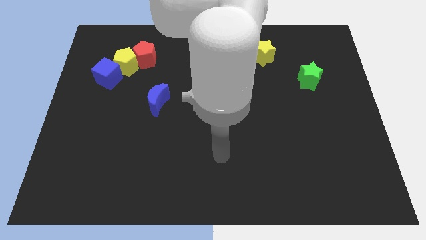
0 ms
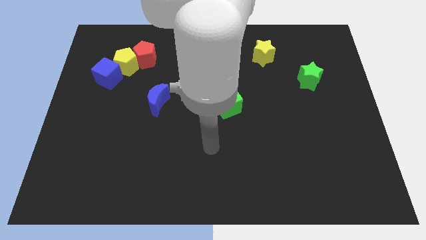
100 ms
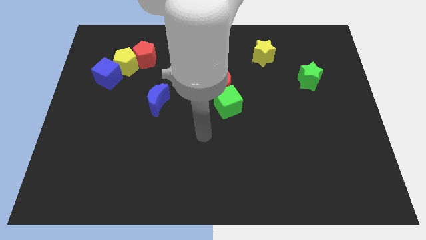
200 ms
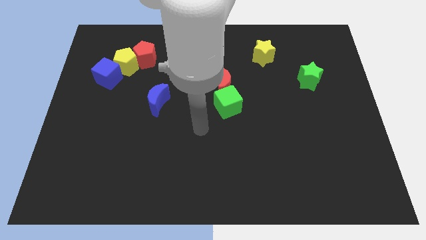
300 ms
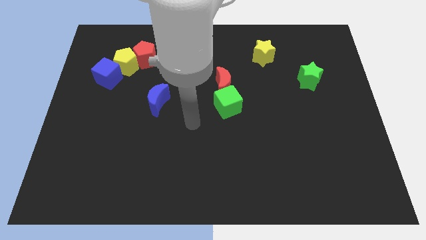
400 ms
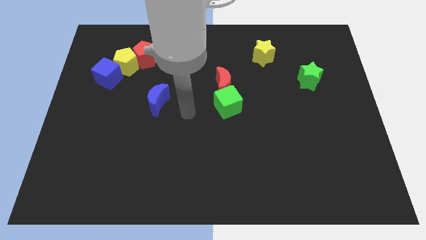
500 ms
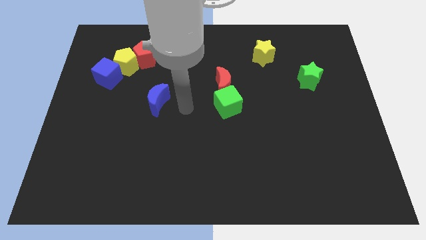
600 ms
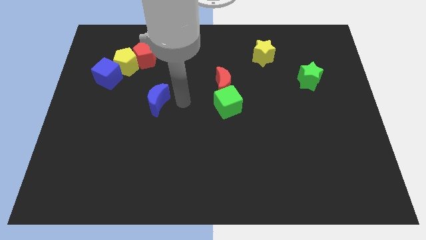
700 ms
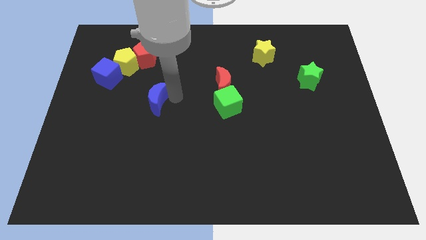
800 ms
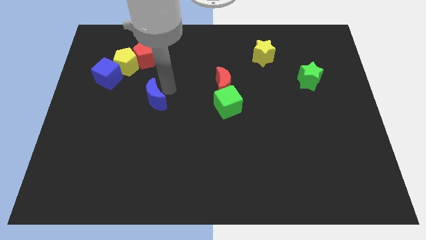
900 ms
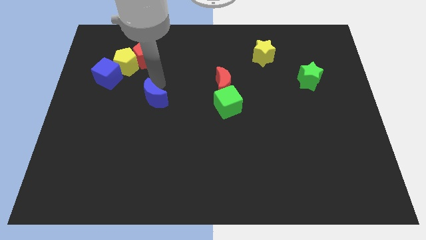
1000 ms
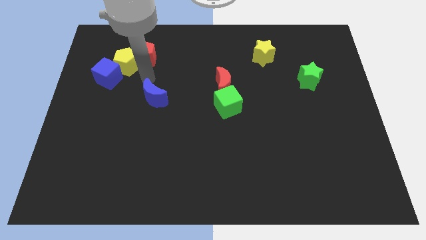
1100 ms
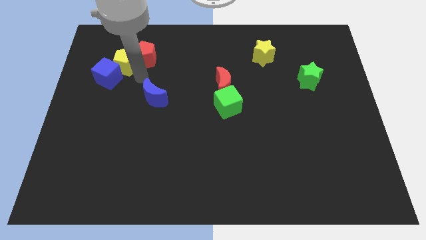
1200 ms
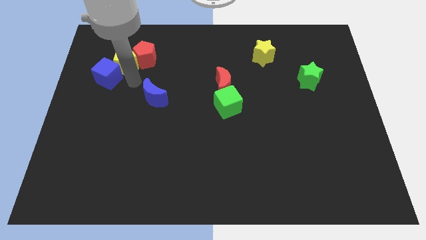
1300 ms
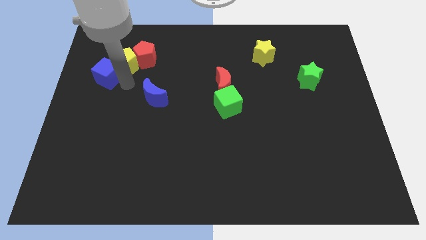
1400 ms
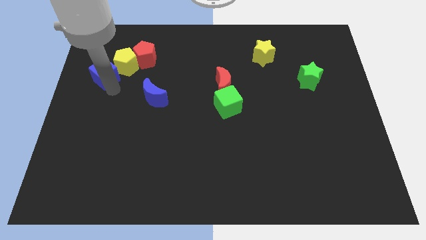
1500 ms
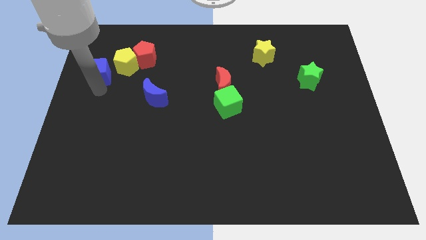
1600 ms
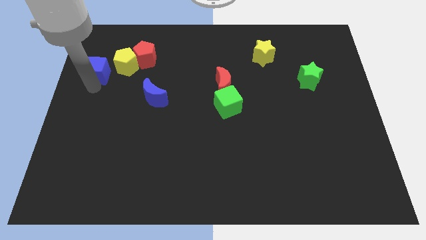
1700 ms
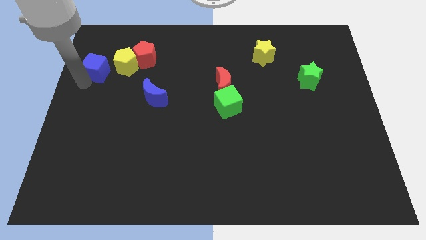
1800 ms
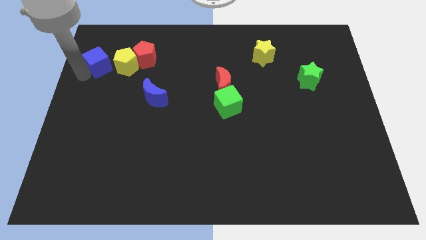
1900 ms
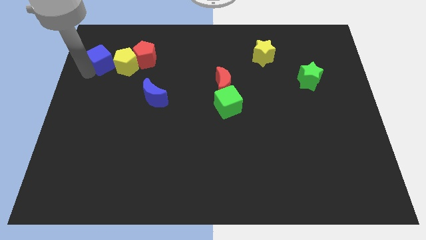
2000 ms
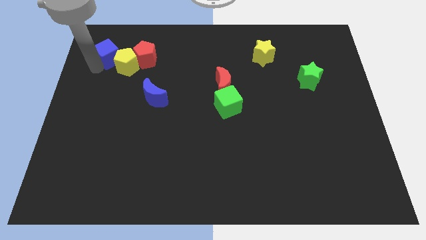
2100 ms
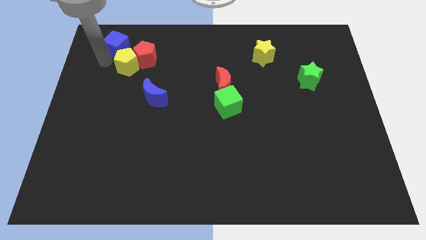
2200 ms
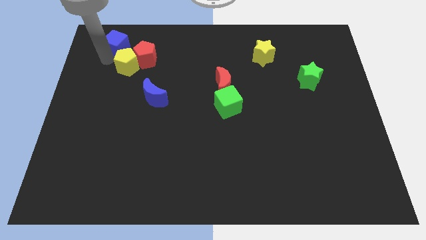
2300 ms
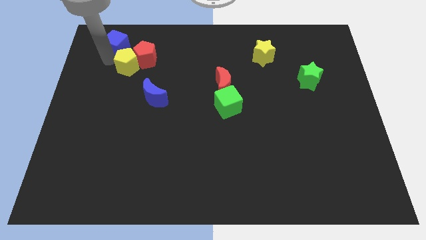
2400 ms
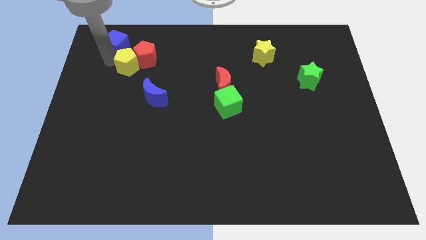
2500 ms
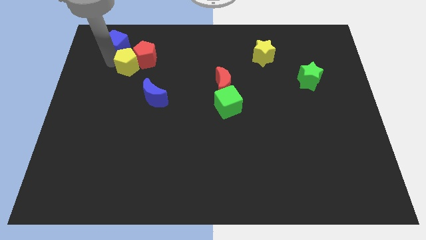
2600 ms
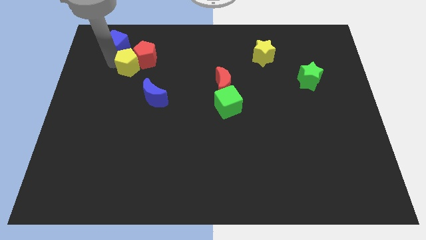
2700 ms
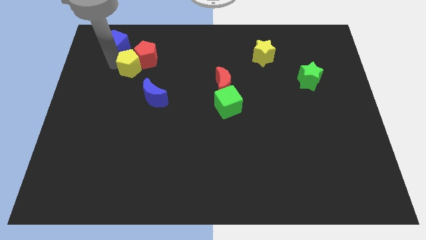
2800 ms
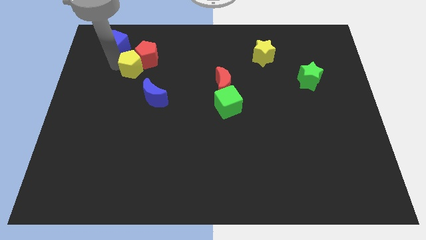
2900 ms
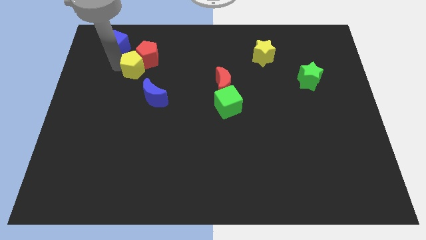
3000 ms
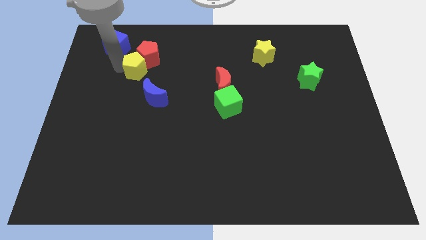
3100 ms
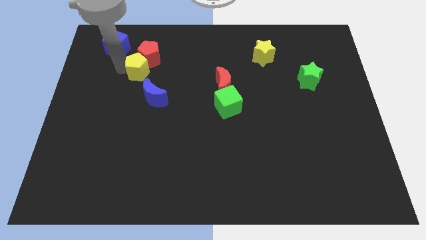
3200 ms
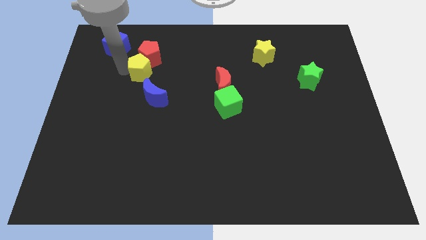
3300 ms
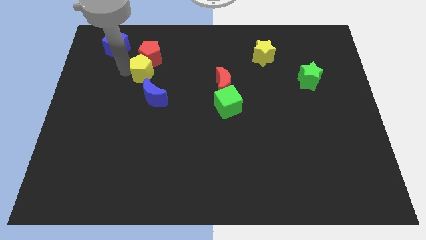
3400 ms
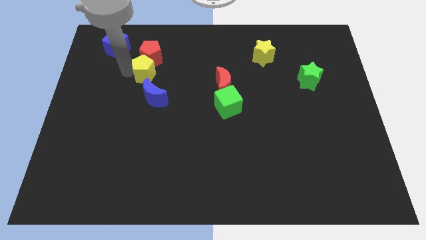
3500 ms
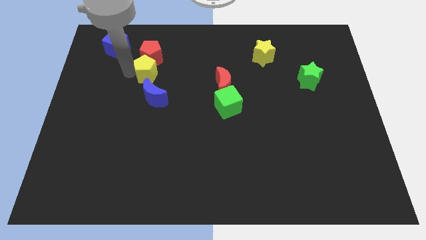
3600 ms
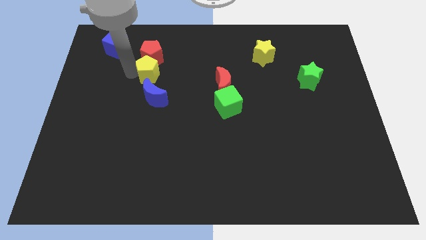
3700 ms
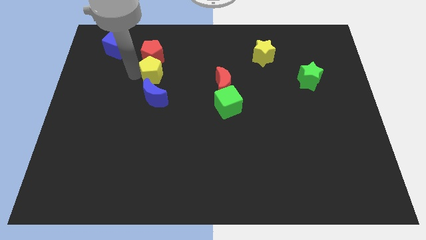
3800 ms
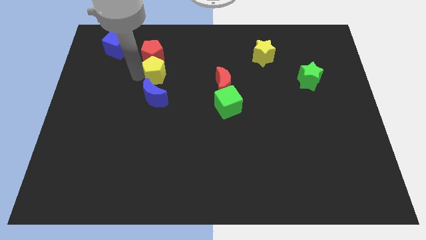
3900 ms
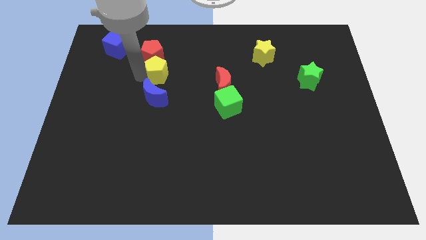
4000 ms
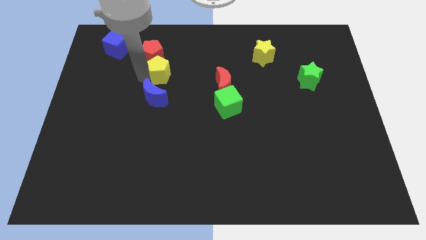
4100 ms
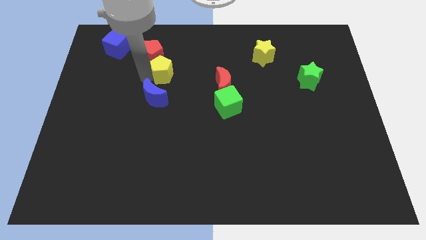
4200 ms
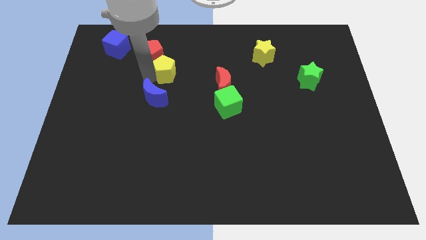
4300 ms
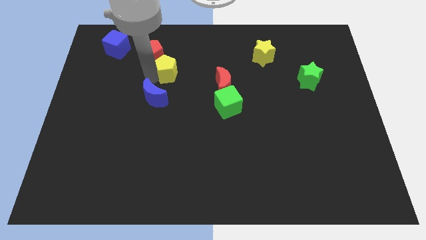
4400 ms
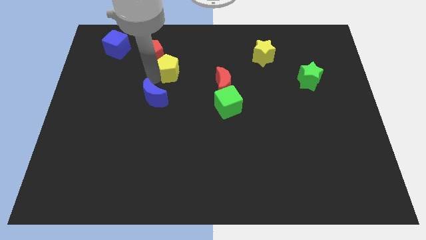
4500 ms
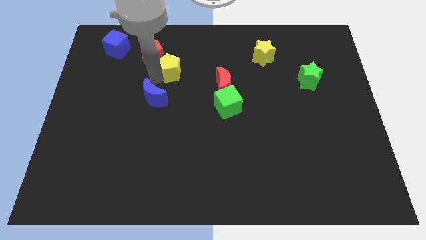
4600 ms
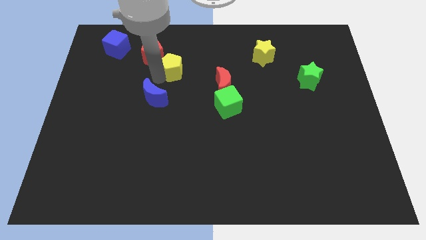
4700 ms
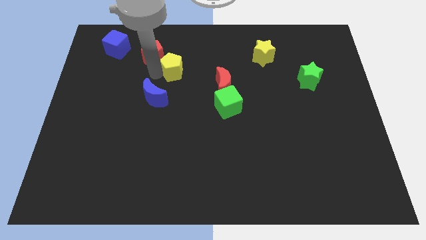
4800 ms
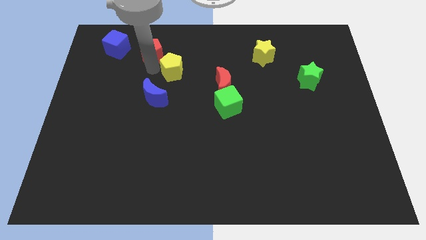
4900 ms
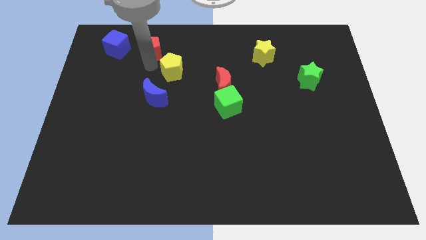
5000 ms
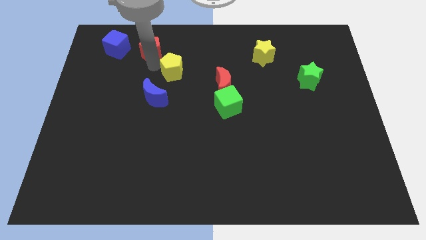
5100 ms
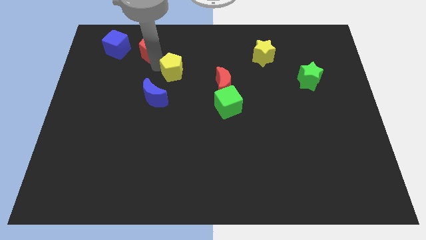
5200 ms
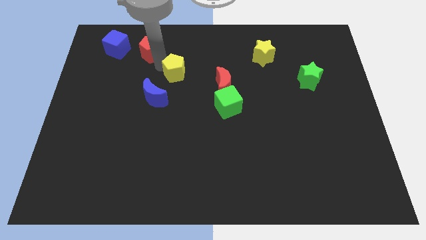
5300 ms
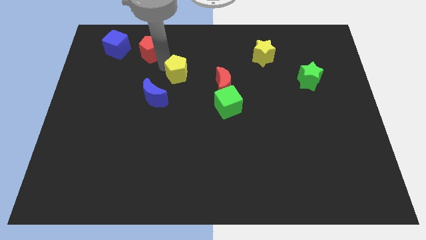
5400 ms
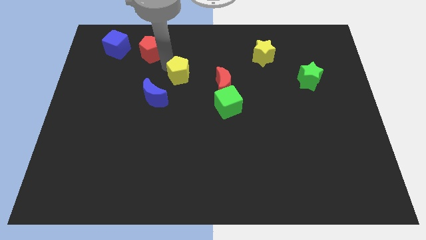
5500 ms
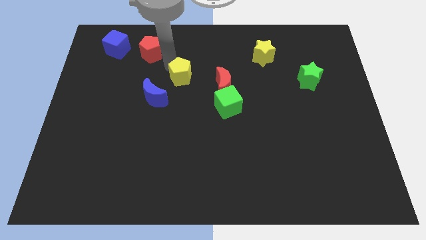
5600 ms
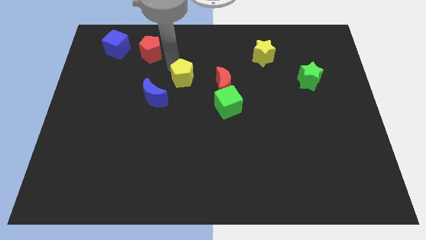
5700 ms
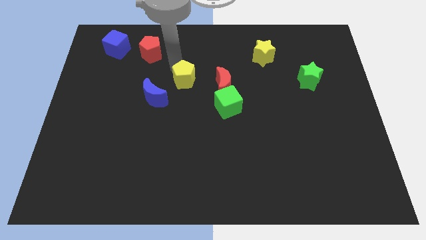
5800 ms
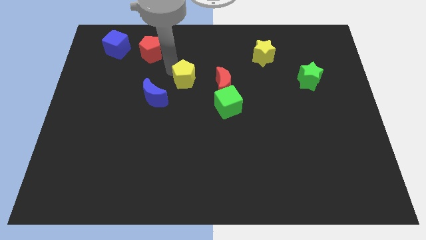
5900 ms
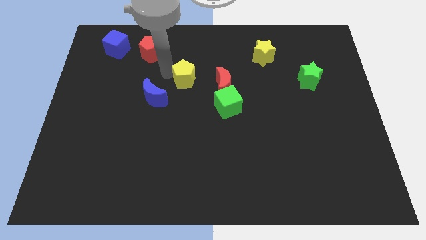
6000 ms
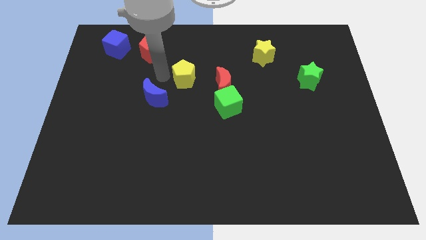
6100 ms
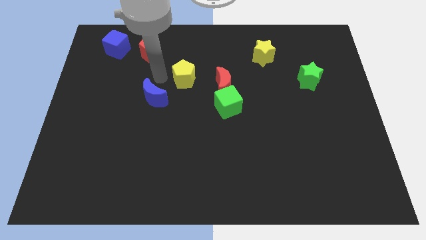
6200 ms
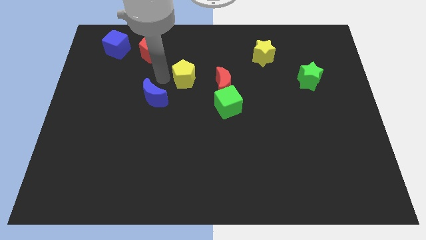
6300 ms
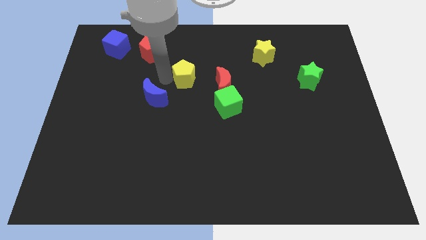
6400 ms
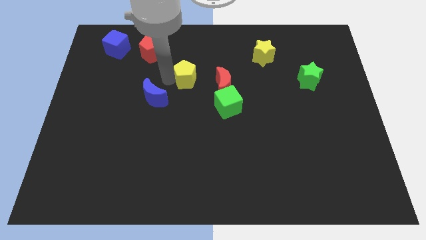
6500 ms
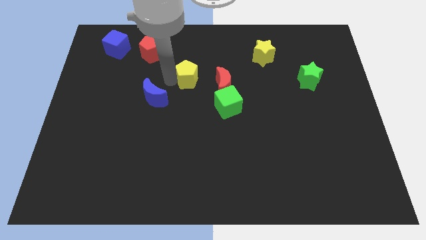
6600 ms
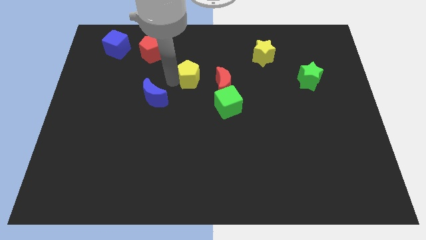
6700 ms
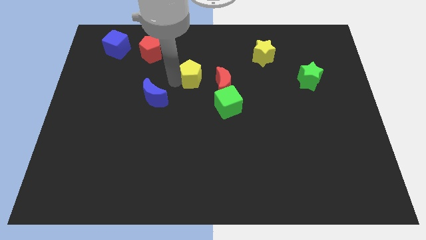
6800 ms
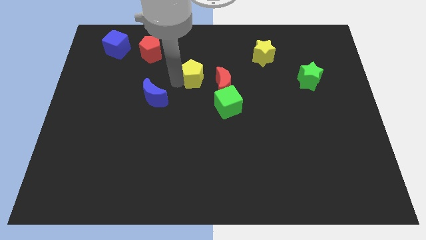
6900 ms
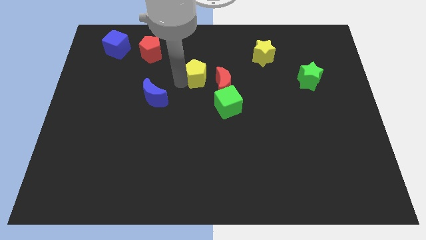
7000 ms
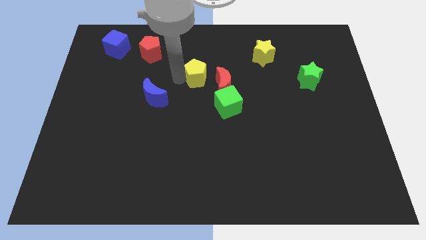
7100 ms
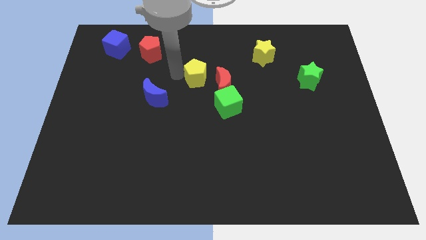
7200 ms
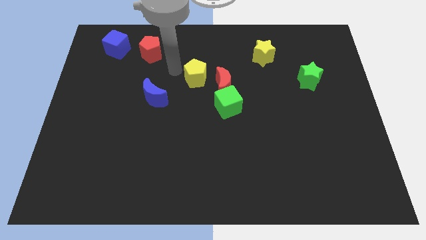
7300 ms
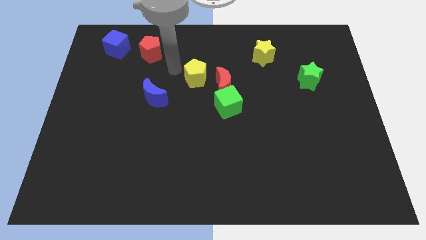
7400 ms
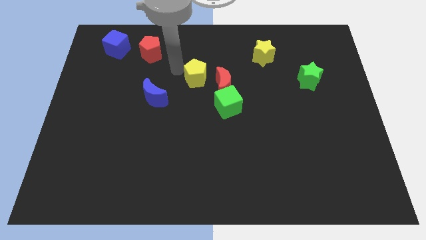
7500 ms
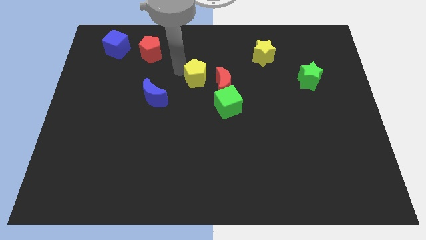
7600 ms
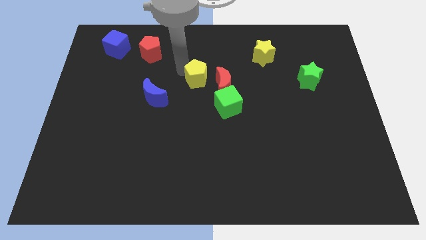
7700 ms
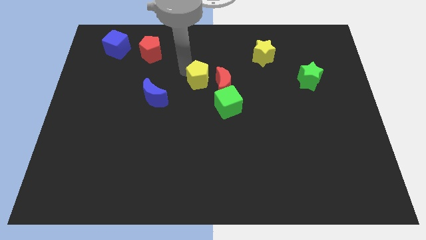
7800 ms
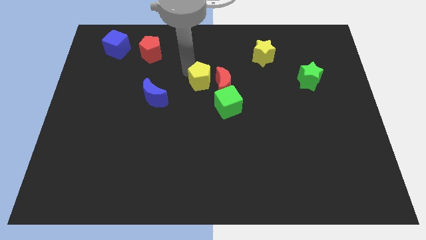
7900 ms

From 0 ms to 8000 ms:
slide the yellow pentagon to the red moon
